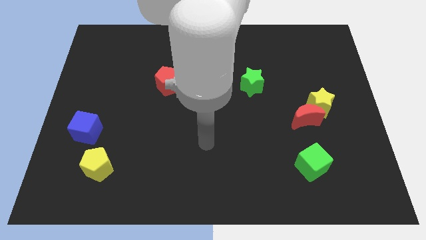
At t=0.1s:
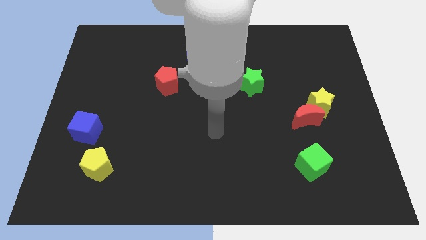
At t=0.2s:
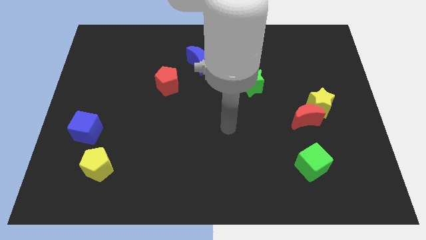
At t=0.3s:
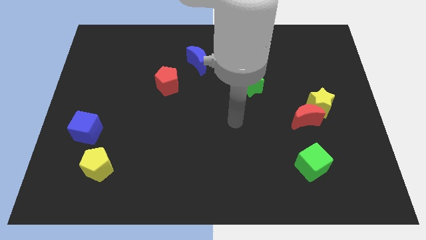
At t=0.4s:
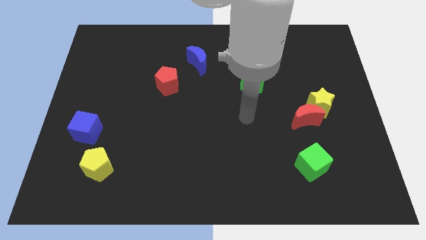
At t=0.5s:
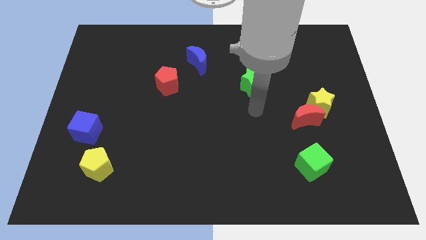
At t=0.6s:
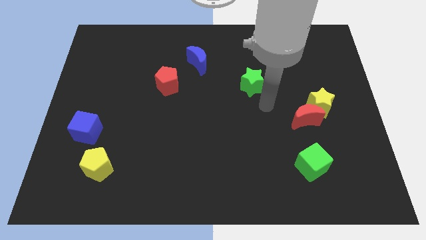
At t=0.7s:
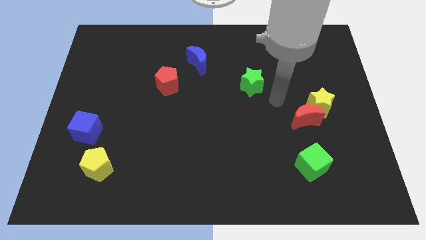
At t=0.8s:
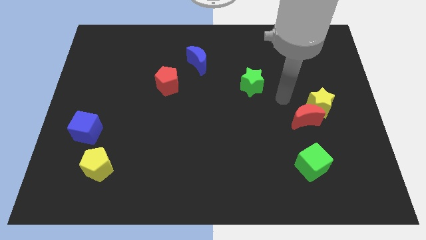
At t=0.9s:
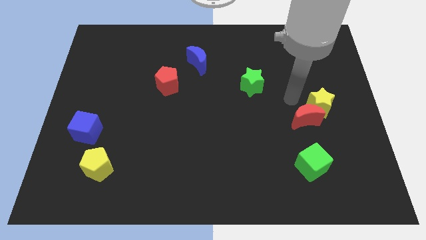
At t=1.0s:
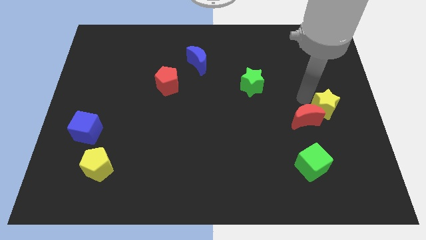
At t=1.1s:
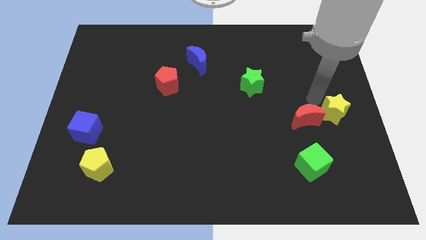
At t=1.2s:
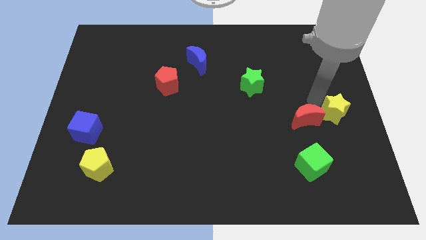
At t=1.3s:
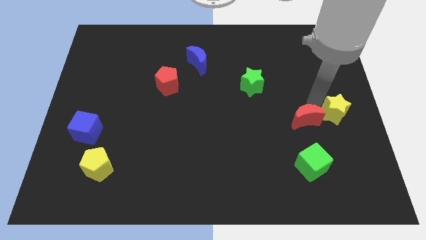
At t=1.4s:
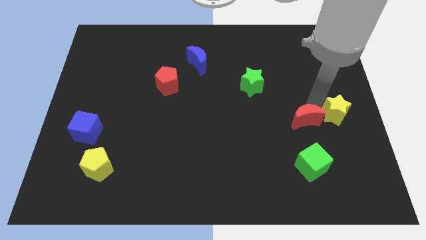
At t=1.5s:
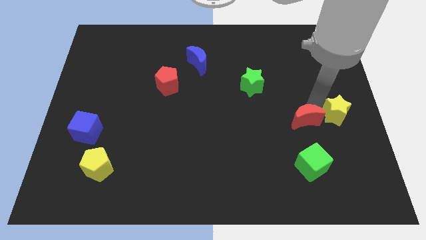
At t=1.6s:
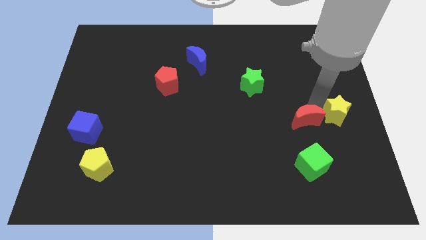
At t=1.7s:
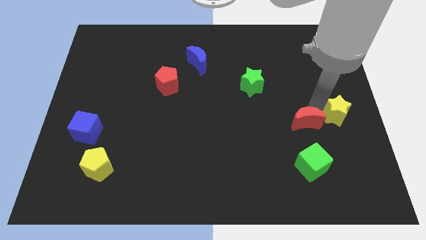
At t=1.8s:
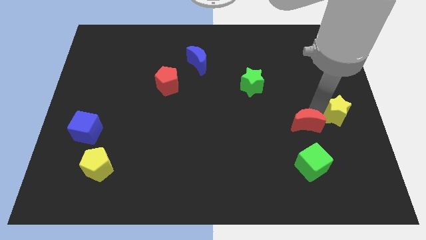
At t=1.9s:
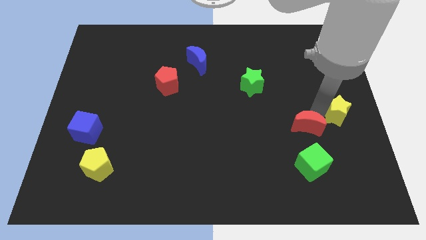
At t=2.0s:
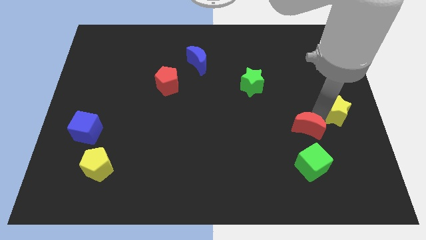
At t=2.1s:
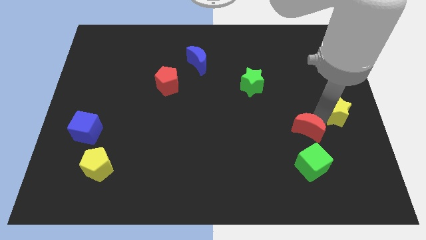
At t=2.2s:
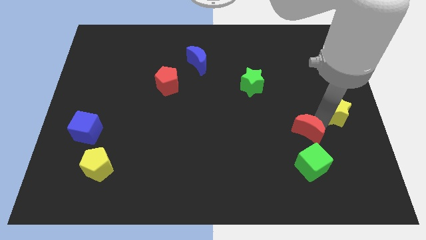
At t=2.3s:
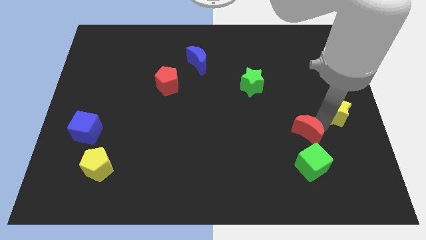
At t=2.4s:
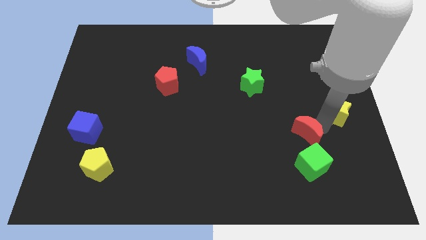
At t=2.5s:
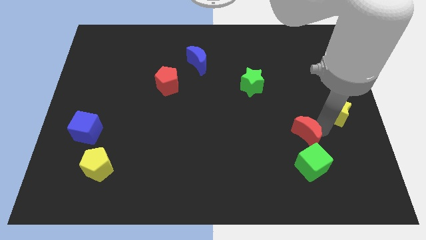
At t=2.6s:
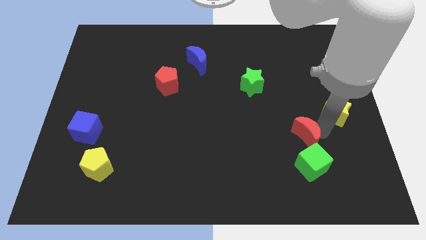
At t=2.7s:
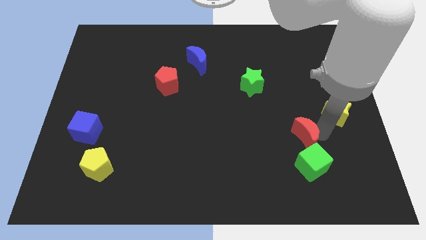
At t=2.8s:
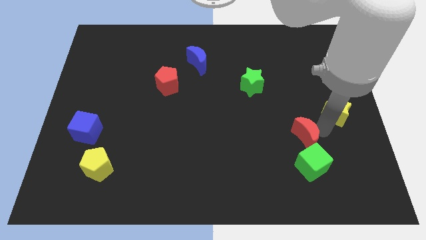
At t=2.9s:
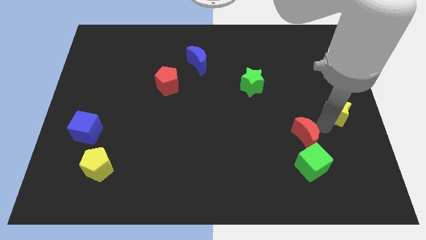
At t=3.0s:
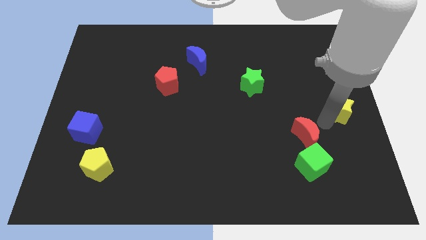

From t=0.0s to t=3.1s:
separate the red moon from the yellow star

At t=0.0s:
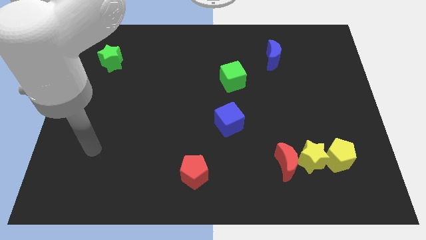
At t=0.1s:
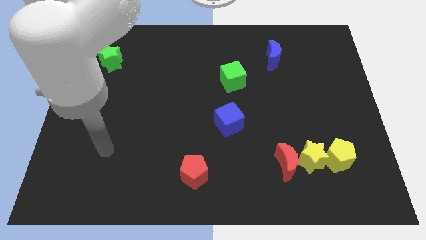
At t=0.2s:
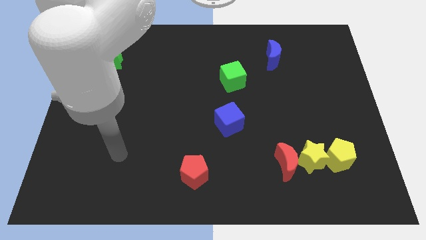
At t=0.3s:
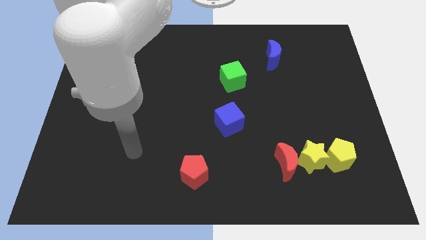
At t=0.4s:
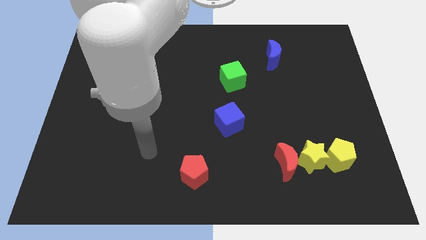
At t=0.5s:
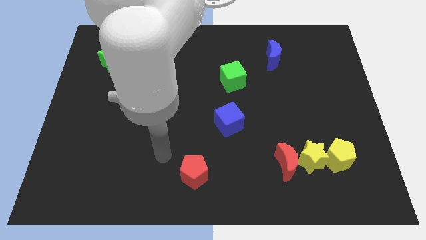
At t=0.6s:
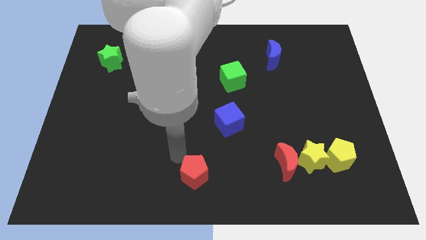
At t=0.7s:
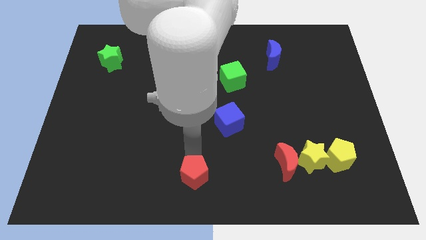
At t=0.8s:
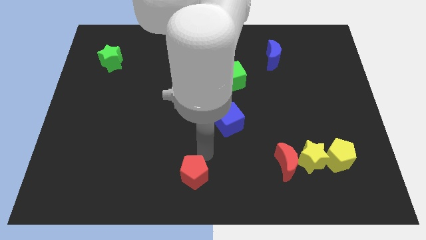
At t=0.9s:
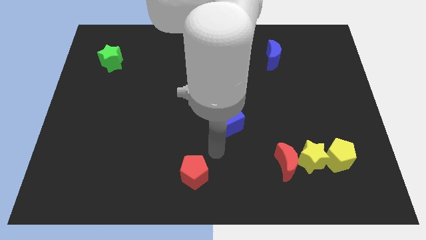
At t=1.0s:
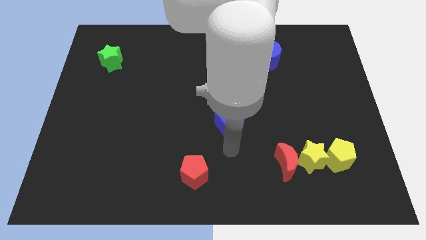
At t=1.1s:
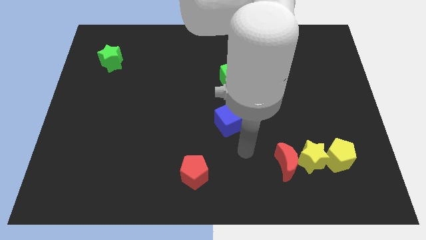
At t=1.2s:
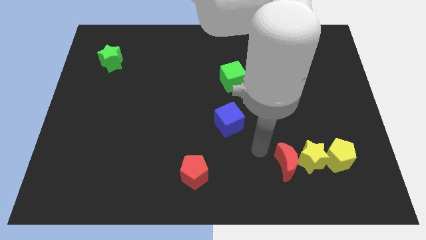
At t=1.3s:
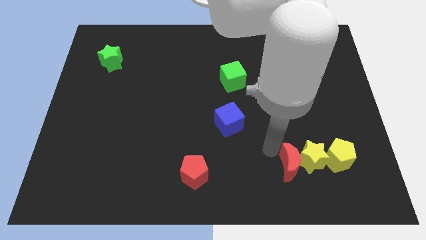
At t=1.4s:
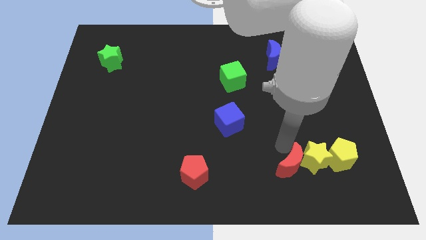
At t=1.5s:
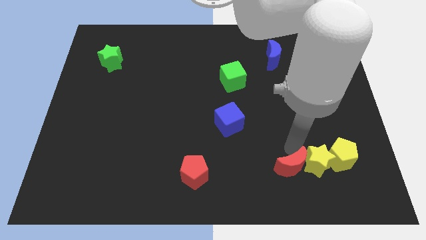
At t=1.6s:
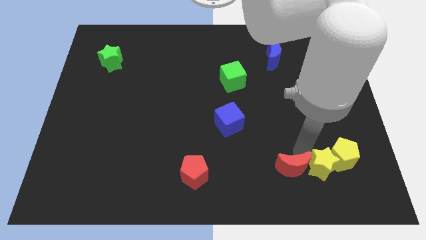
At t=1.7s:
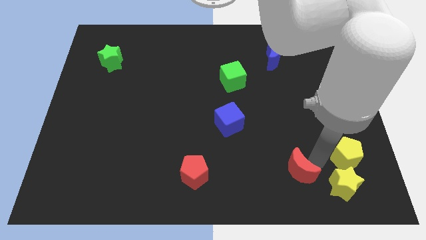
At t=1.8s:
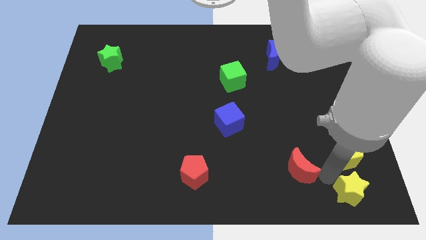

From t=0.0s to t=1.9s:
pull the red moon apart from the yellow star

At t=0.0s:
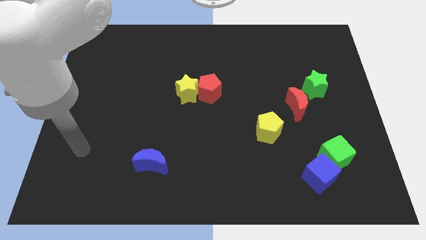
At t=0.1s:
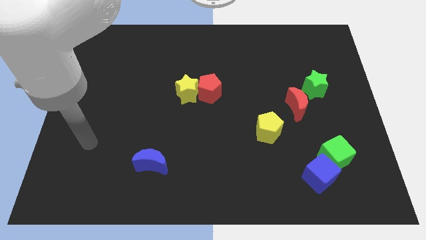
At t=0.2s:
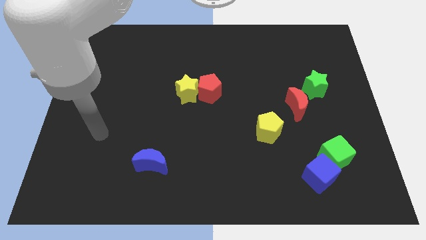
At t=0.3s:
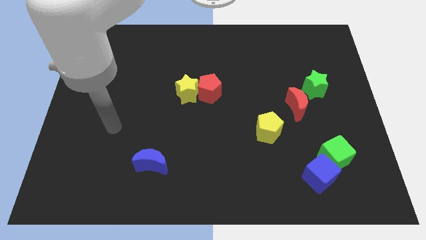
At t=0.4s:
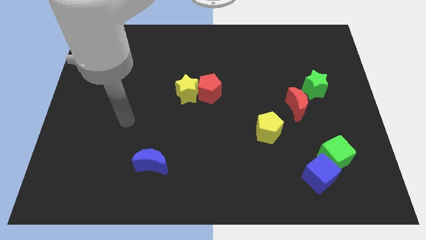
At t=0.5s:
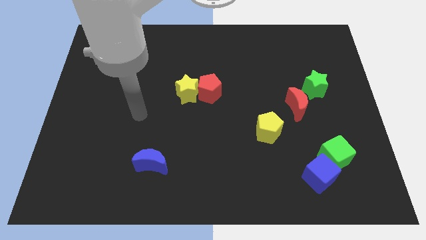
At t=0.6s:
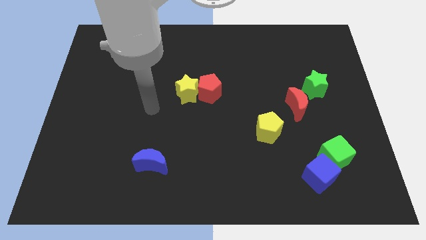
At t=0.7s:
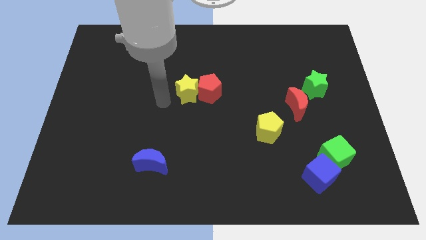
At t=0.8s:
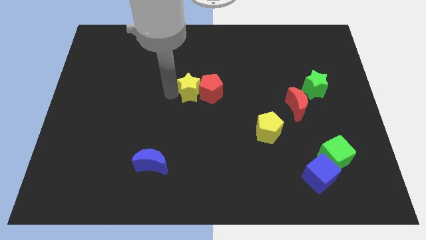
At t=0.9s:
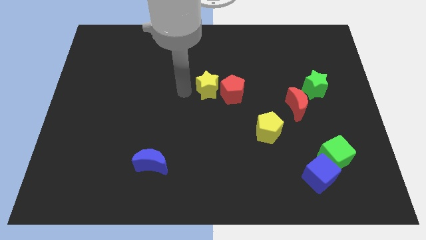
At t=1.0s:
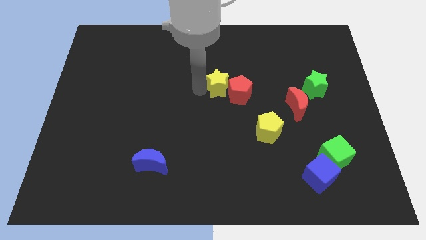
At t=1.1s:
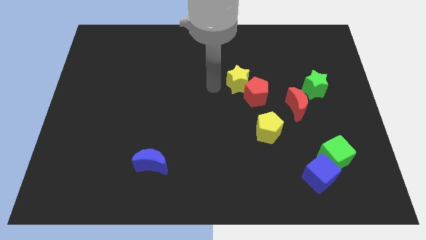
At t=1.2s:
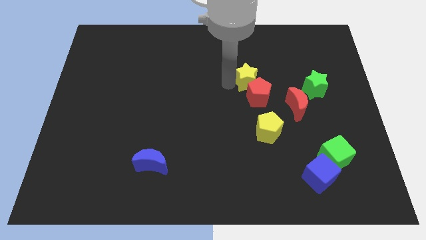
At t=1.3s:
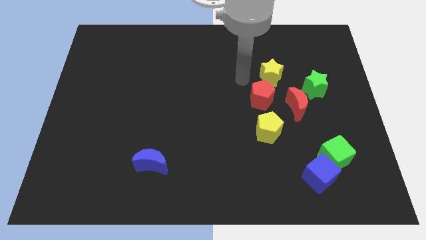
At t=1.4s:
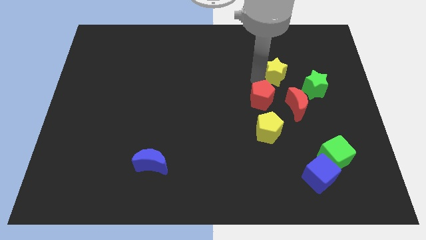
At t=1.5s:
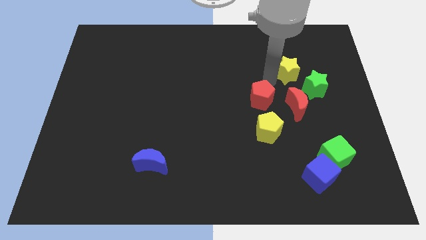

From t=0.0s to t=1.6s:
separate the red pentagon from the yellow star

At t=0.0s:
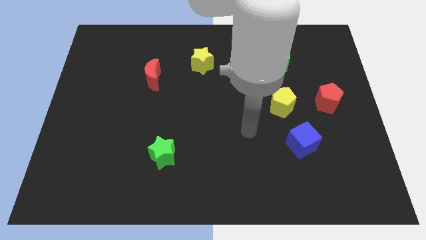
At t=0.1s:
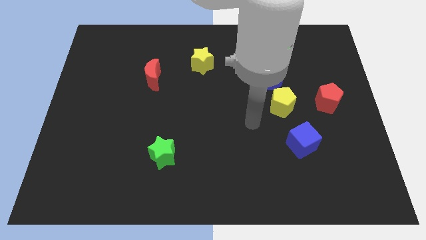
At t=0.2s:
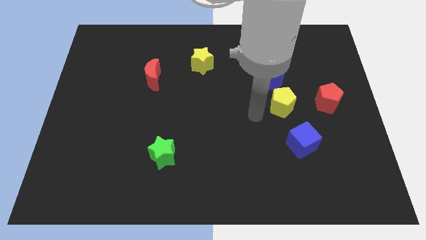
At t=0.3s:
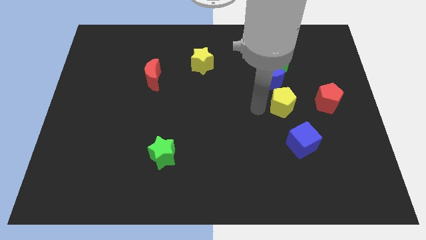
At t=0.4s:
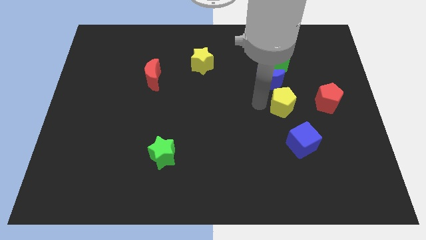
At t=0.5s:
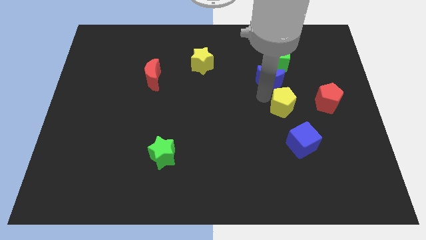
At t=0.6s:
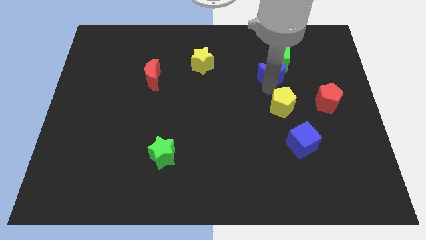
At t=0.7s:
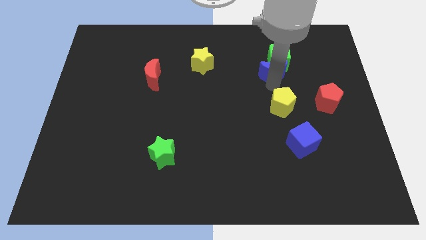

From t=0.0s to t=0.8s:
move the yellow pentagon away from the blue moon

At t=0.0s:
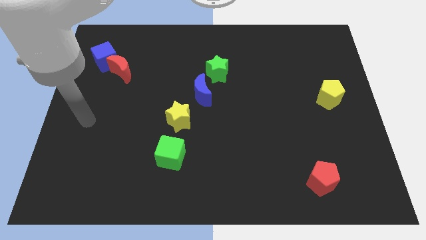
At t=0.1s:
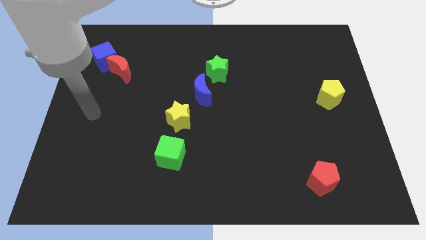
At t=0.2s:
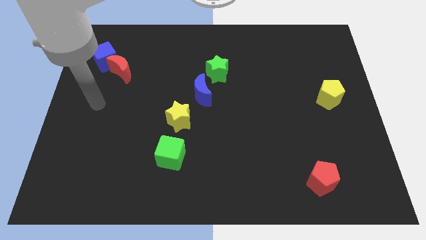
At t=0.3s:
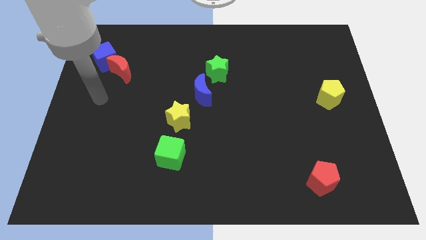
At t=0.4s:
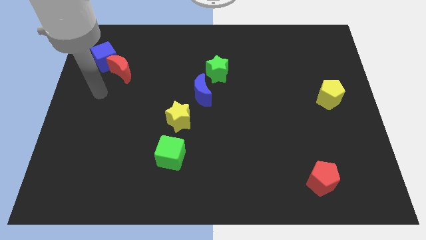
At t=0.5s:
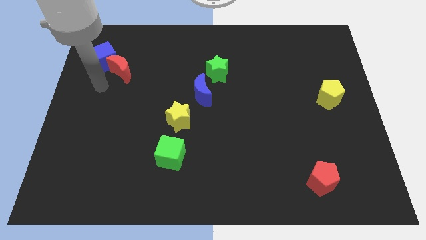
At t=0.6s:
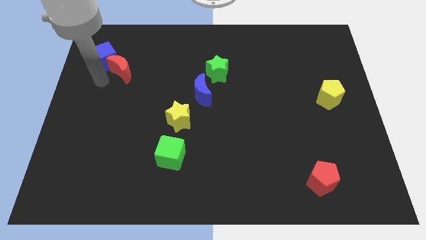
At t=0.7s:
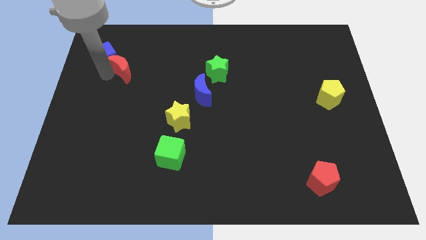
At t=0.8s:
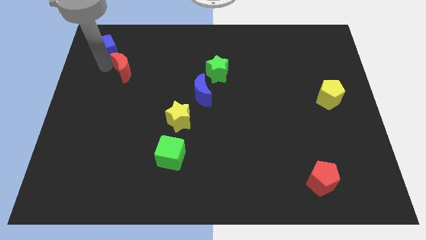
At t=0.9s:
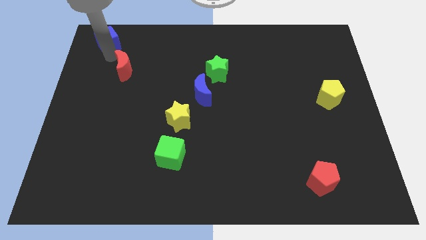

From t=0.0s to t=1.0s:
pull the red moon apart from the blue cube

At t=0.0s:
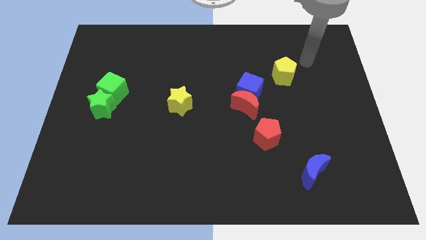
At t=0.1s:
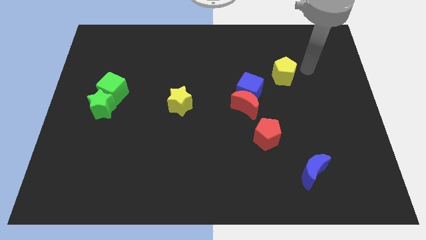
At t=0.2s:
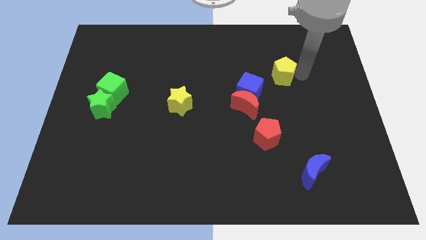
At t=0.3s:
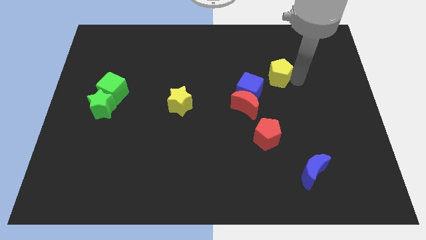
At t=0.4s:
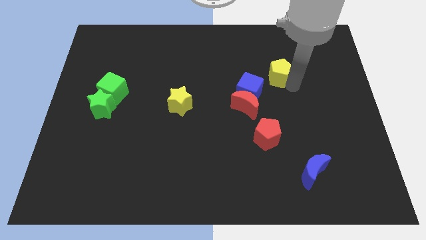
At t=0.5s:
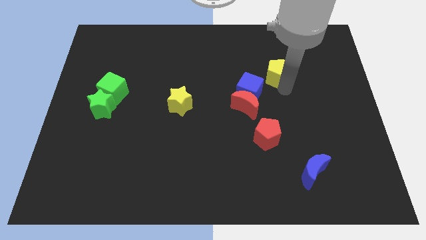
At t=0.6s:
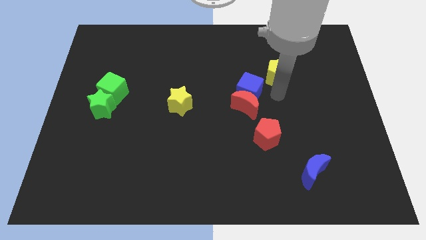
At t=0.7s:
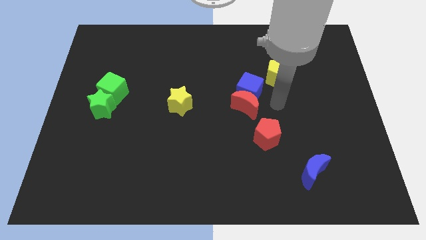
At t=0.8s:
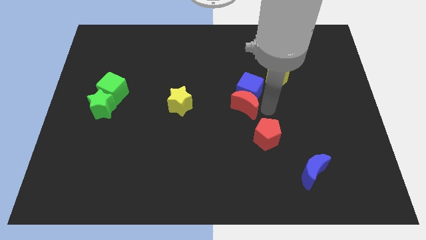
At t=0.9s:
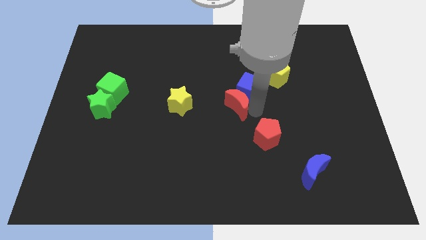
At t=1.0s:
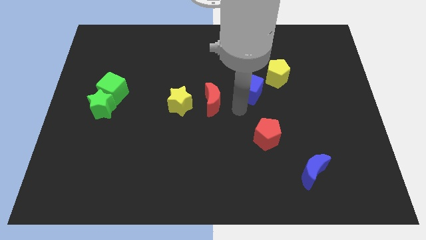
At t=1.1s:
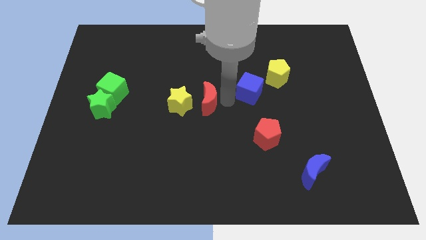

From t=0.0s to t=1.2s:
move the blue cube away from the red moon
